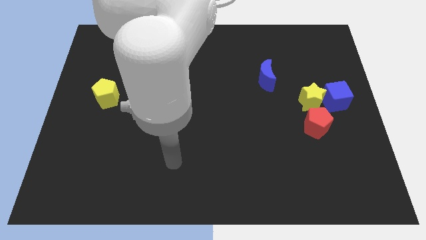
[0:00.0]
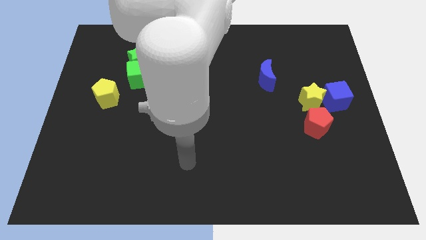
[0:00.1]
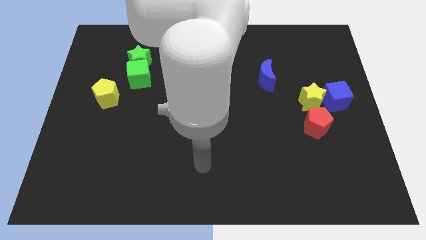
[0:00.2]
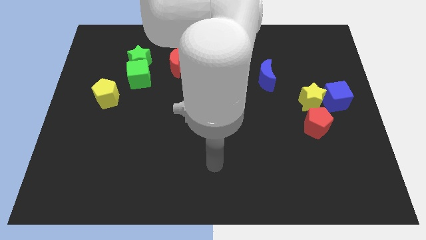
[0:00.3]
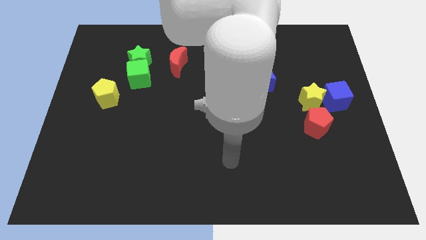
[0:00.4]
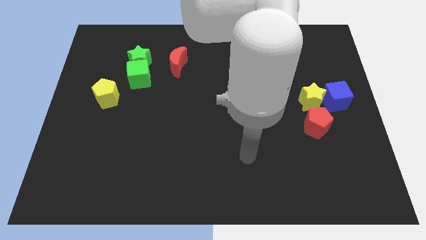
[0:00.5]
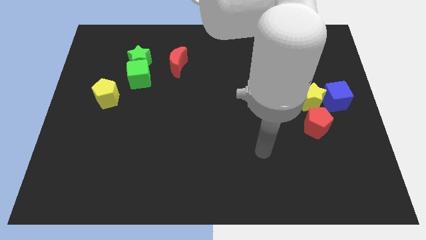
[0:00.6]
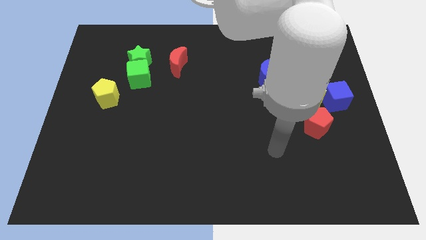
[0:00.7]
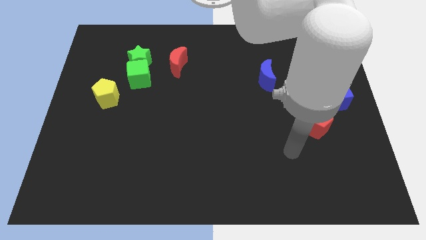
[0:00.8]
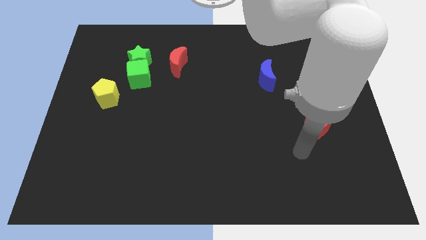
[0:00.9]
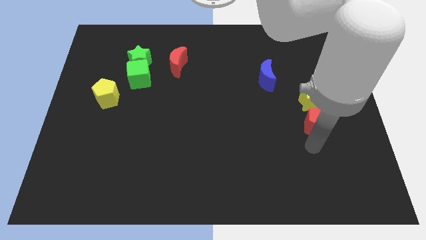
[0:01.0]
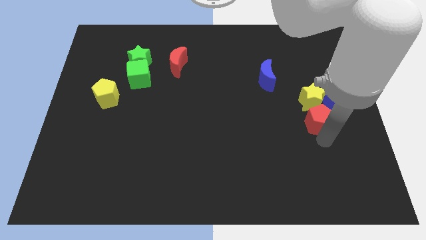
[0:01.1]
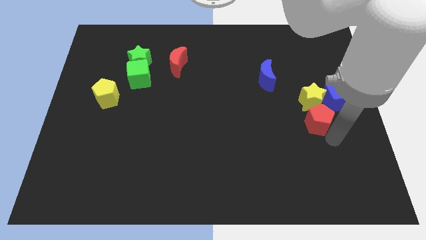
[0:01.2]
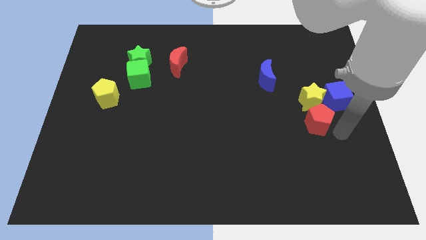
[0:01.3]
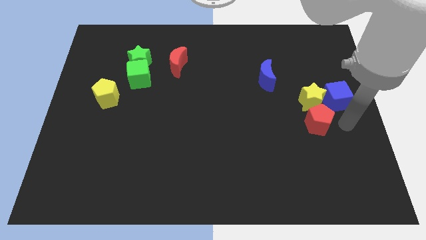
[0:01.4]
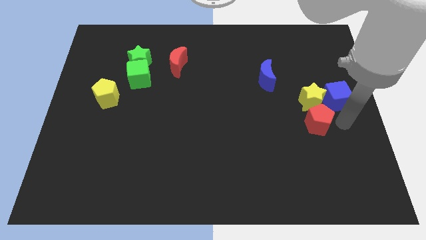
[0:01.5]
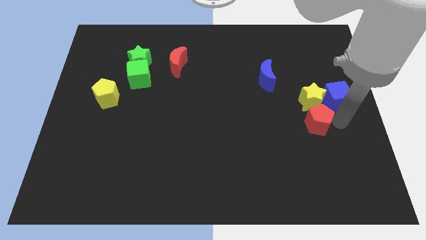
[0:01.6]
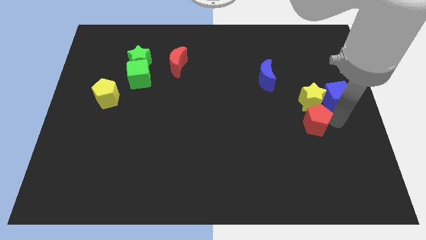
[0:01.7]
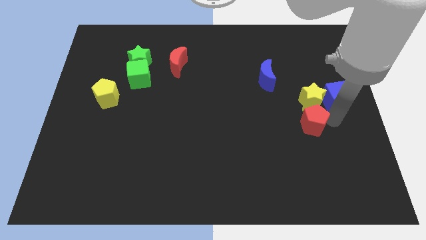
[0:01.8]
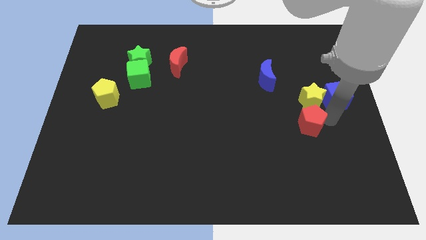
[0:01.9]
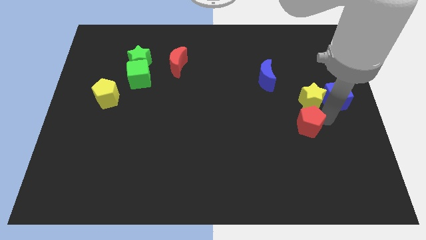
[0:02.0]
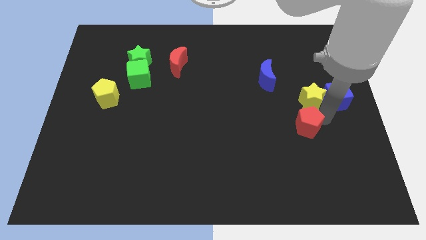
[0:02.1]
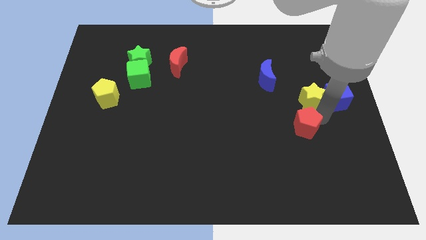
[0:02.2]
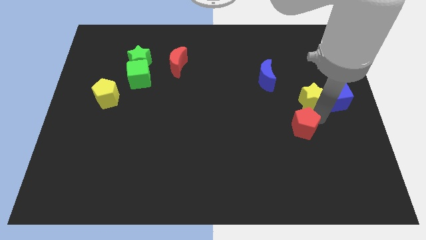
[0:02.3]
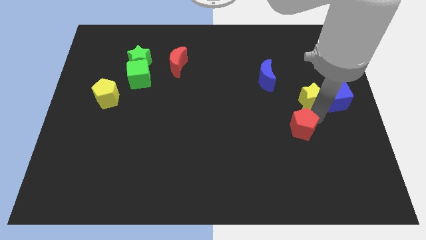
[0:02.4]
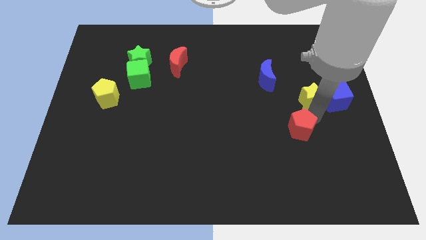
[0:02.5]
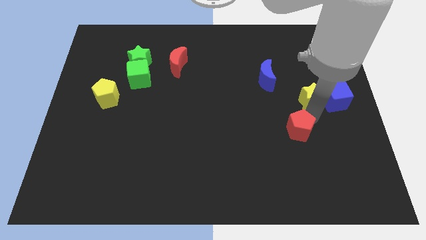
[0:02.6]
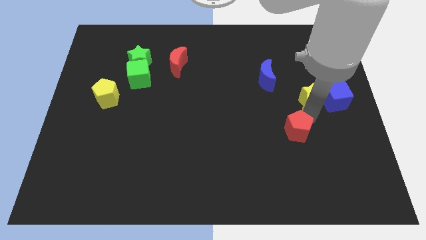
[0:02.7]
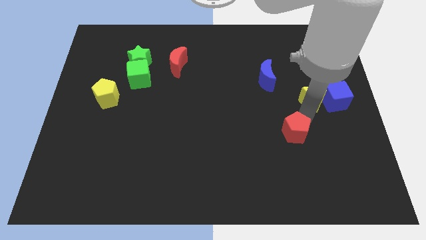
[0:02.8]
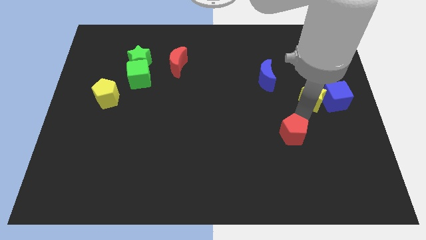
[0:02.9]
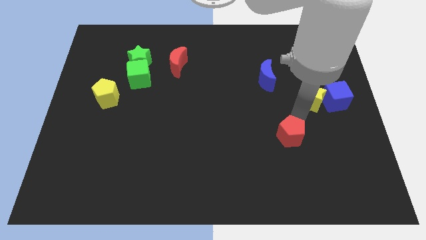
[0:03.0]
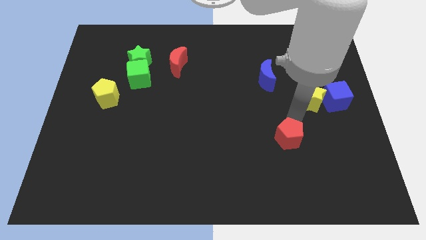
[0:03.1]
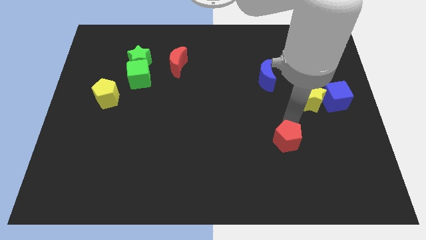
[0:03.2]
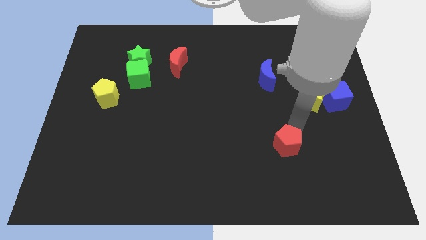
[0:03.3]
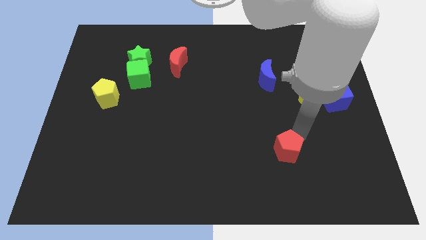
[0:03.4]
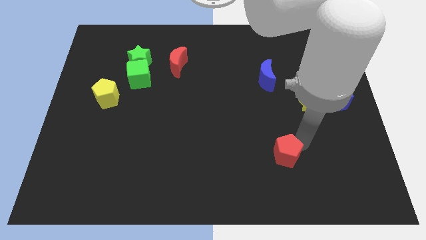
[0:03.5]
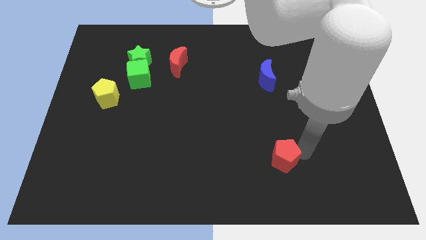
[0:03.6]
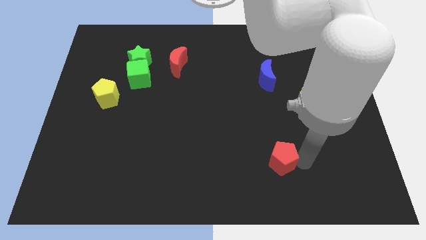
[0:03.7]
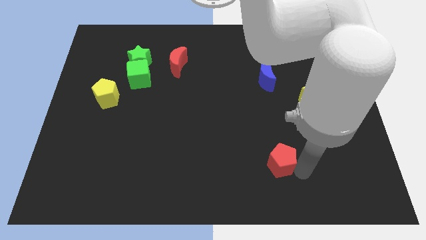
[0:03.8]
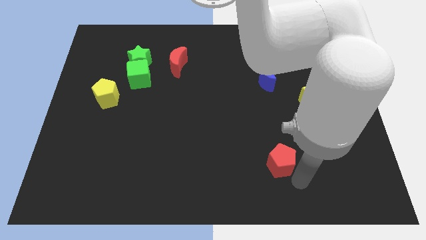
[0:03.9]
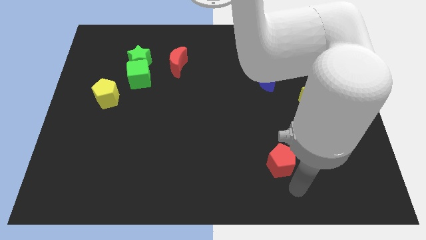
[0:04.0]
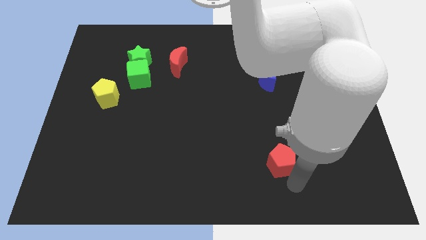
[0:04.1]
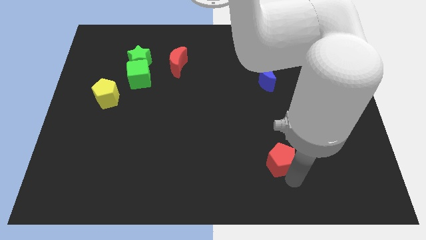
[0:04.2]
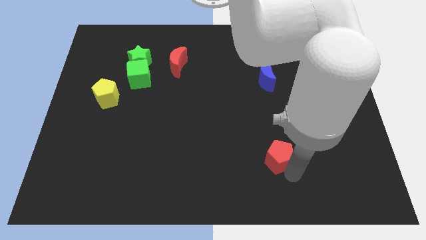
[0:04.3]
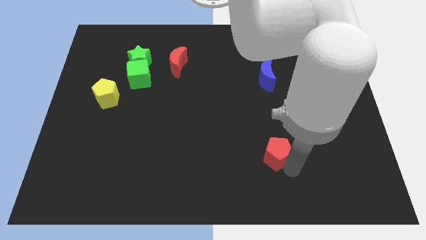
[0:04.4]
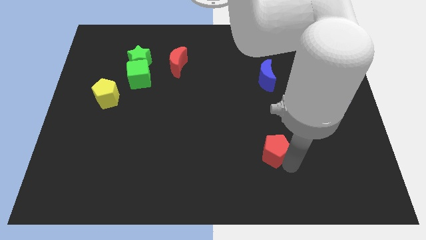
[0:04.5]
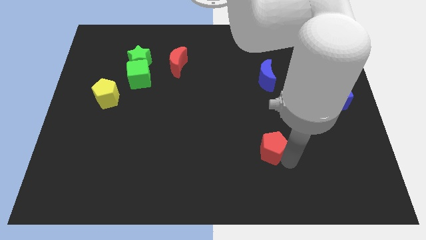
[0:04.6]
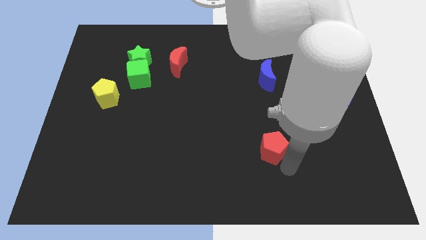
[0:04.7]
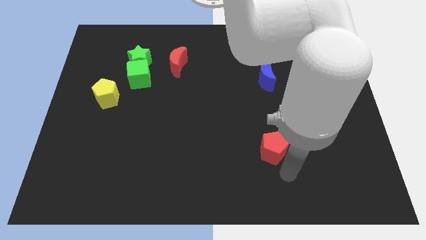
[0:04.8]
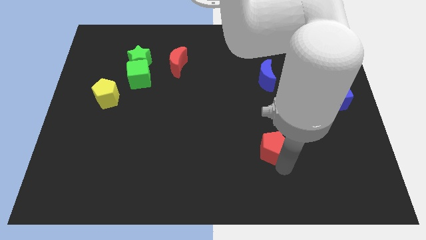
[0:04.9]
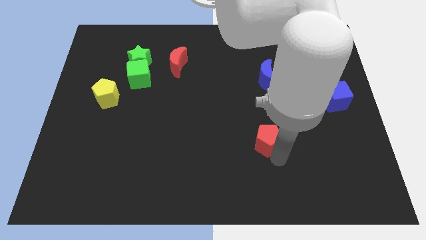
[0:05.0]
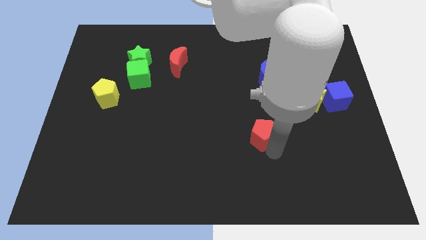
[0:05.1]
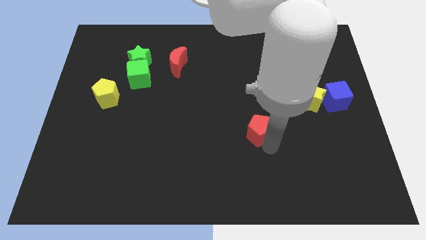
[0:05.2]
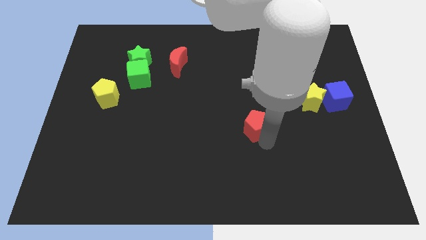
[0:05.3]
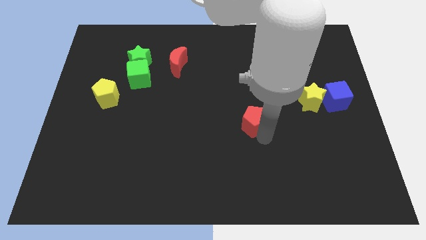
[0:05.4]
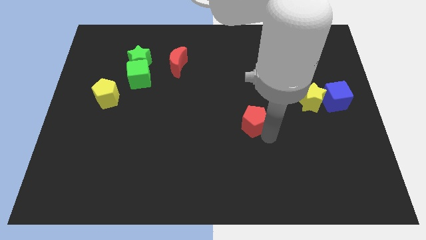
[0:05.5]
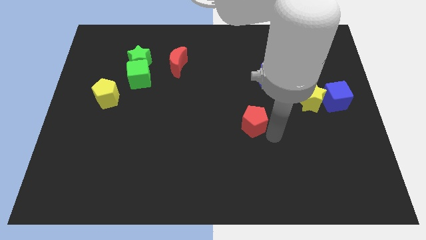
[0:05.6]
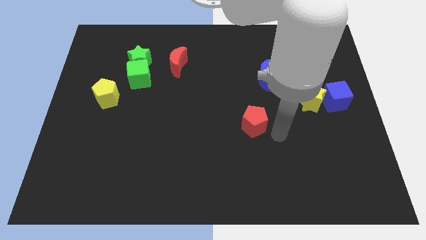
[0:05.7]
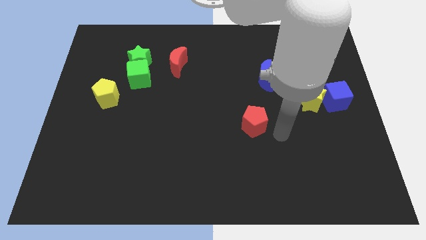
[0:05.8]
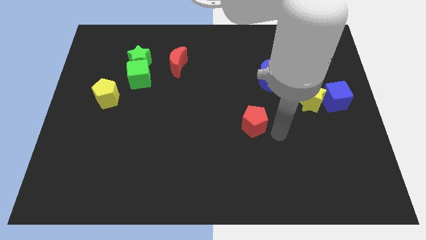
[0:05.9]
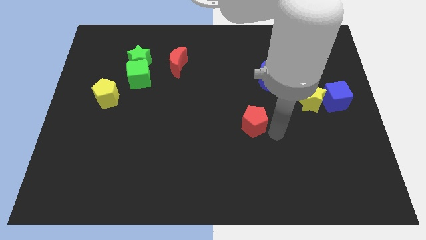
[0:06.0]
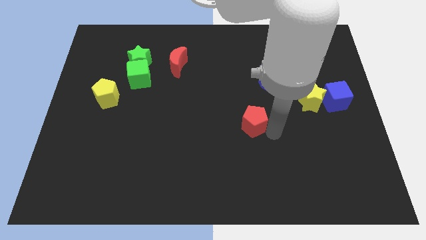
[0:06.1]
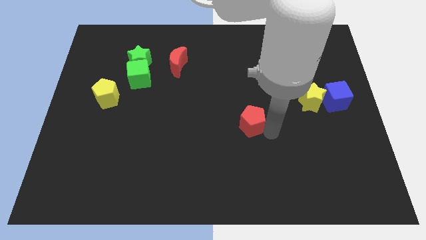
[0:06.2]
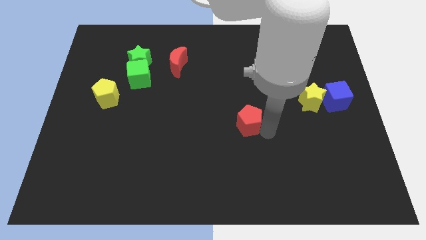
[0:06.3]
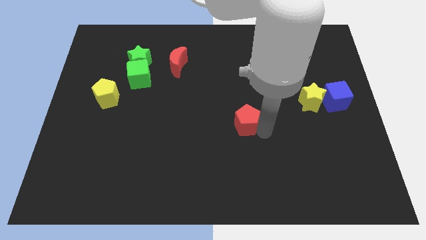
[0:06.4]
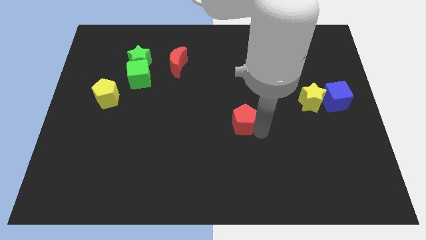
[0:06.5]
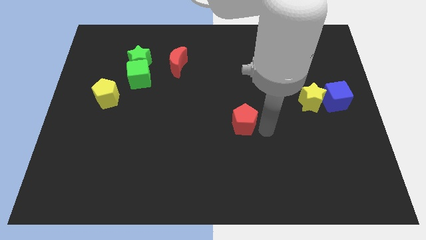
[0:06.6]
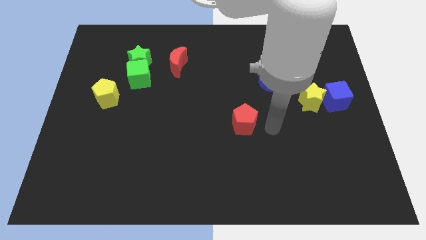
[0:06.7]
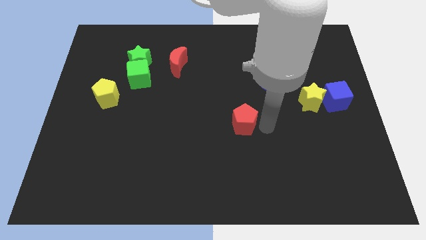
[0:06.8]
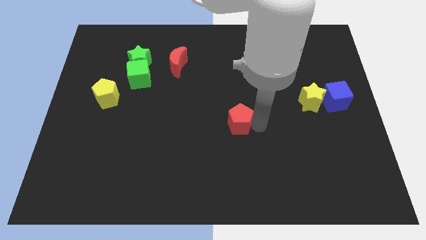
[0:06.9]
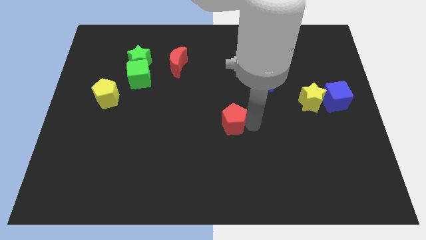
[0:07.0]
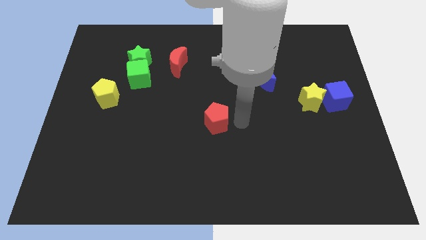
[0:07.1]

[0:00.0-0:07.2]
push the red pentagon to the left

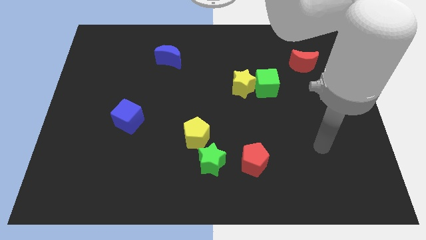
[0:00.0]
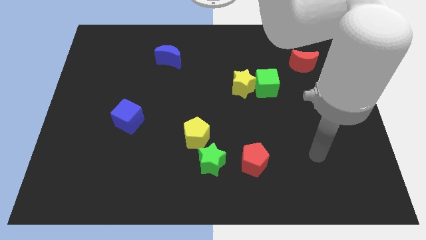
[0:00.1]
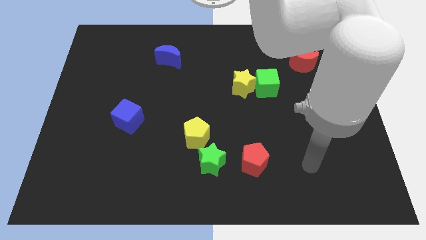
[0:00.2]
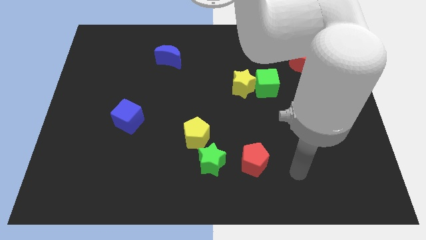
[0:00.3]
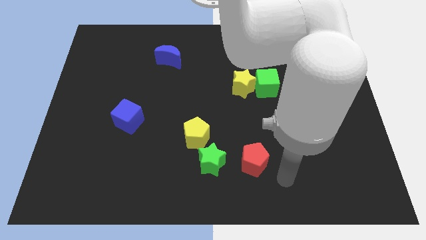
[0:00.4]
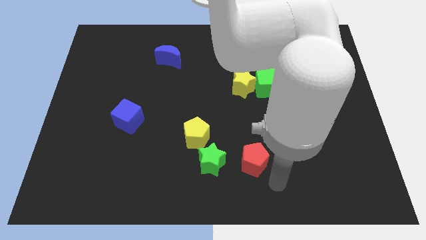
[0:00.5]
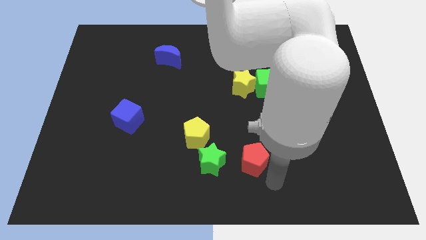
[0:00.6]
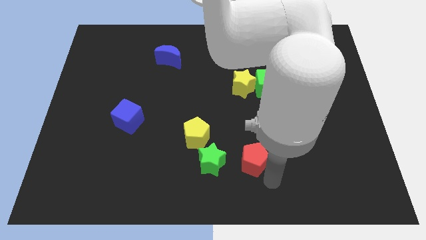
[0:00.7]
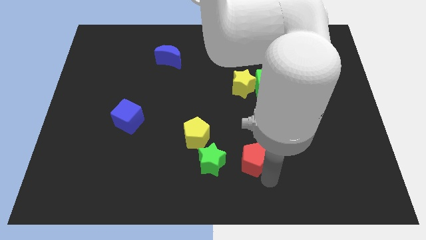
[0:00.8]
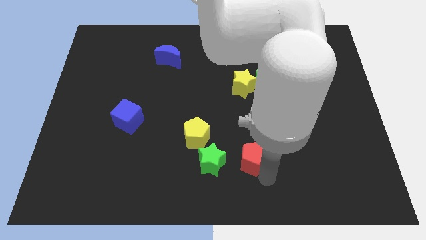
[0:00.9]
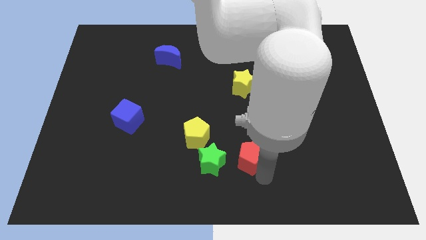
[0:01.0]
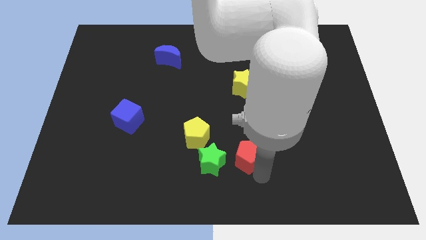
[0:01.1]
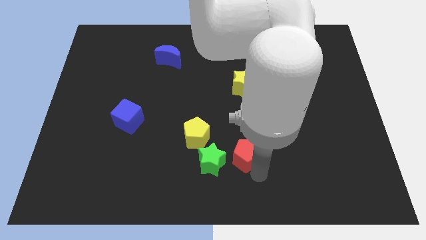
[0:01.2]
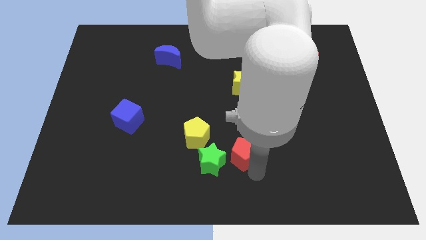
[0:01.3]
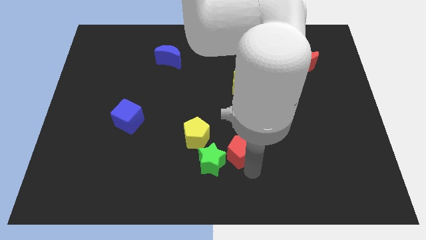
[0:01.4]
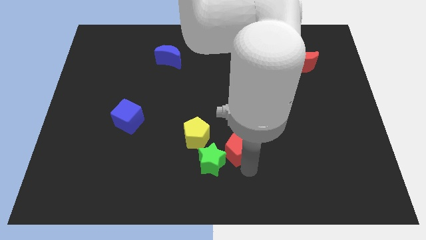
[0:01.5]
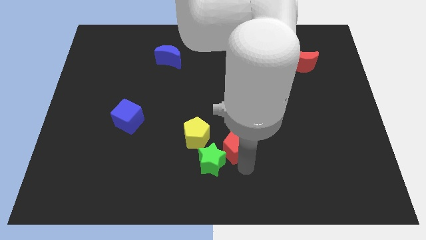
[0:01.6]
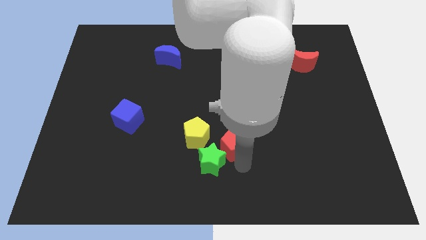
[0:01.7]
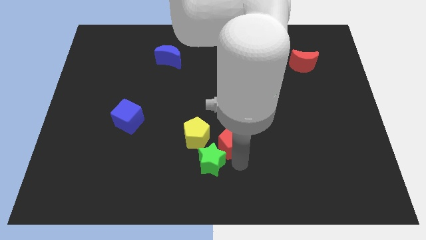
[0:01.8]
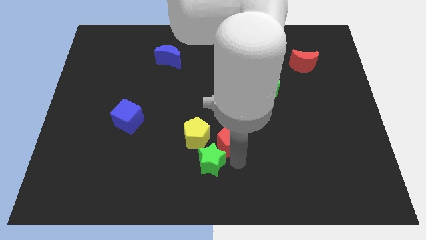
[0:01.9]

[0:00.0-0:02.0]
slide the red pentagon upwards and then left a little bit
